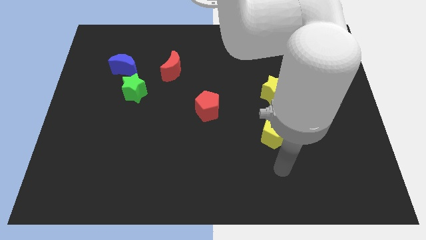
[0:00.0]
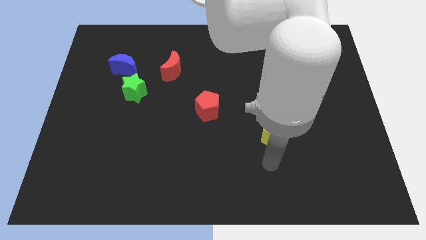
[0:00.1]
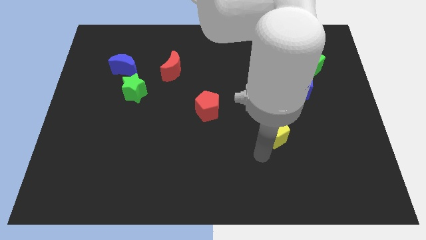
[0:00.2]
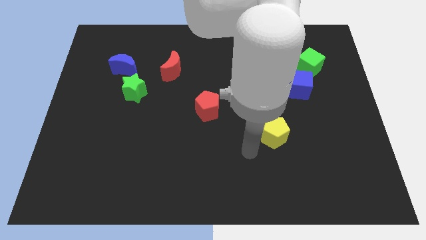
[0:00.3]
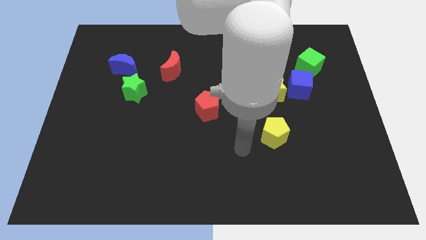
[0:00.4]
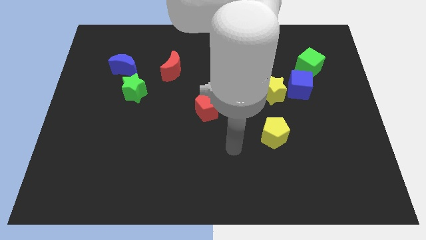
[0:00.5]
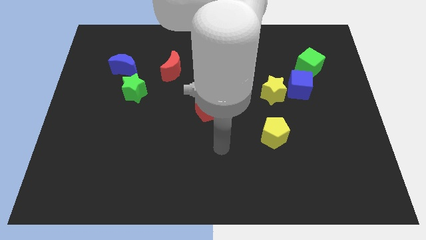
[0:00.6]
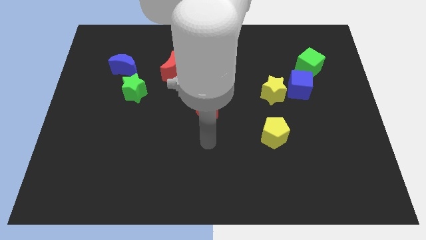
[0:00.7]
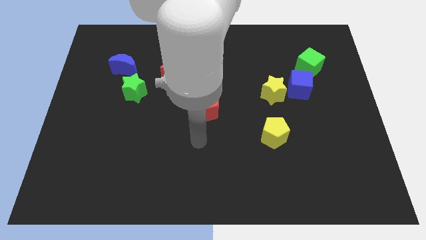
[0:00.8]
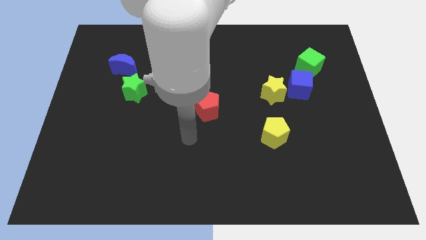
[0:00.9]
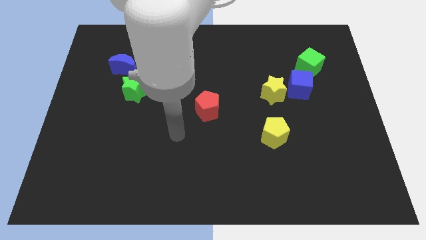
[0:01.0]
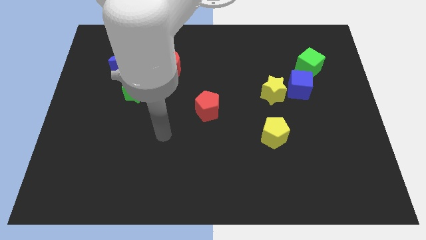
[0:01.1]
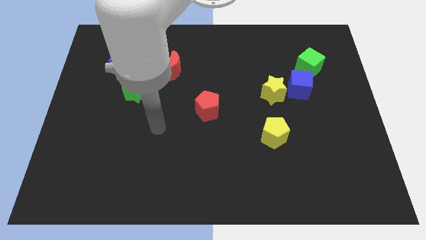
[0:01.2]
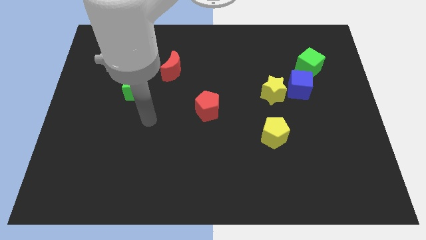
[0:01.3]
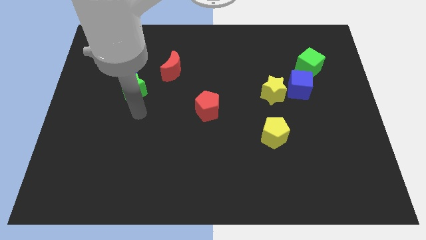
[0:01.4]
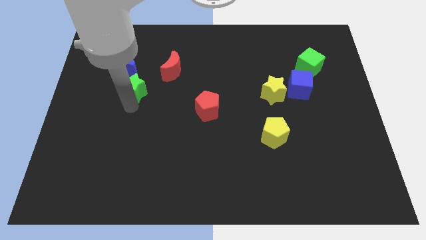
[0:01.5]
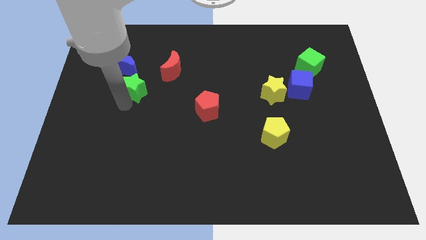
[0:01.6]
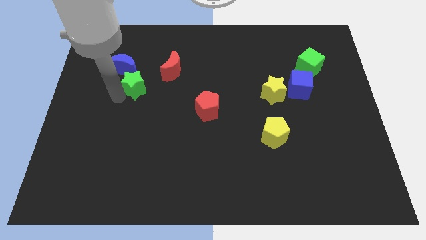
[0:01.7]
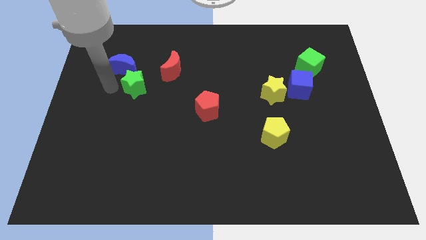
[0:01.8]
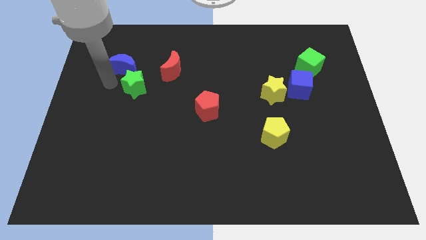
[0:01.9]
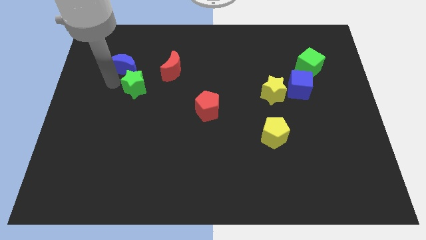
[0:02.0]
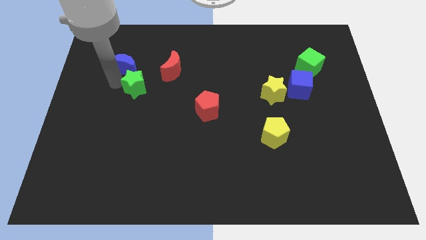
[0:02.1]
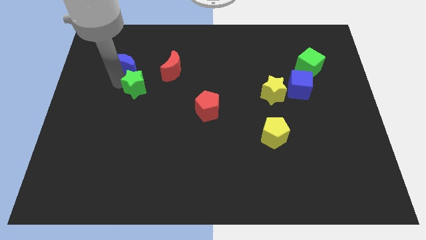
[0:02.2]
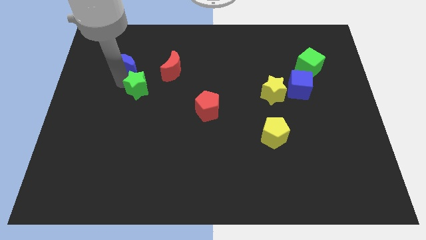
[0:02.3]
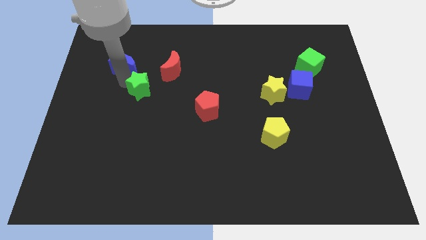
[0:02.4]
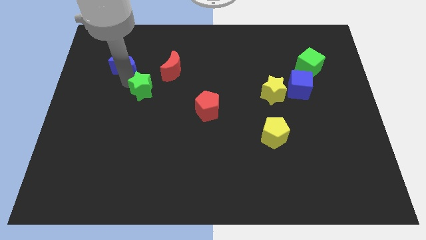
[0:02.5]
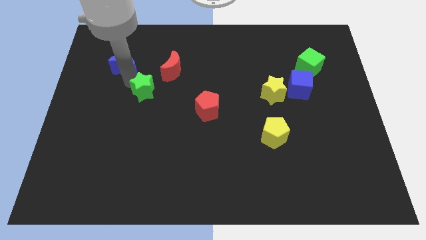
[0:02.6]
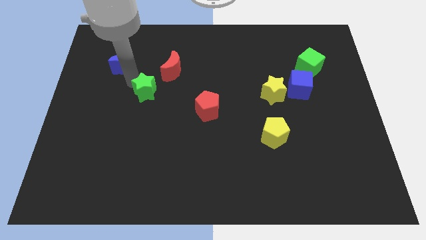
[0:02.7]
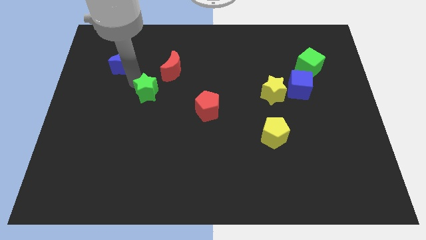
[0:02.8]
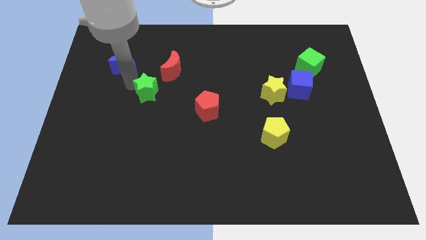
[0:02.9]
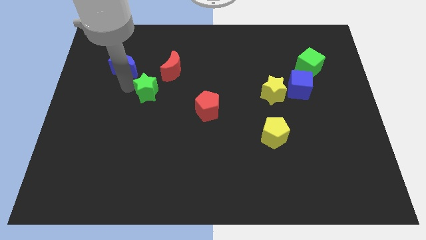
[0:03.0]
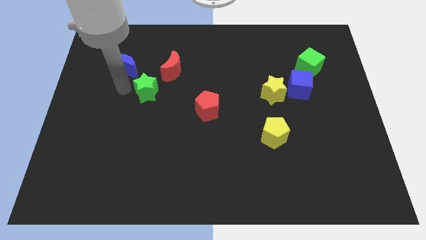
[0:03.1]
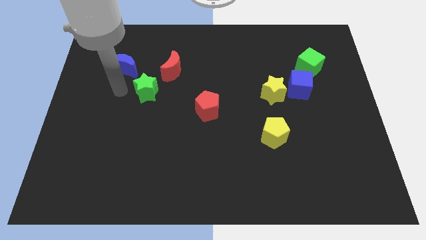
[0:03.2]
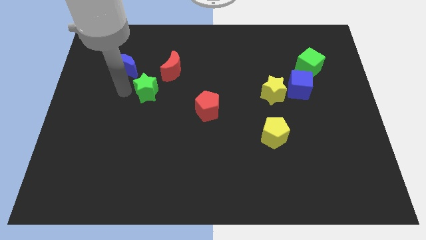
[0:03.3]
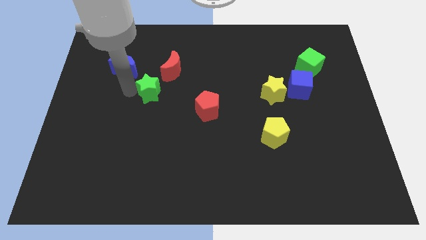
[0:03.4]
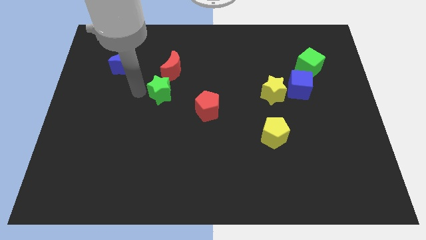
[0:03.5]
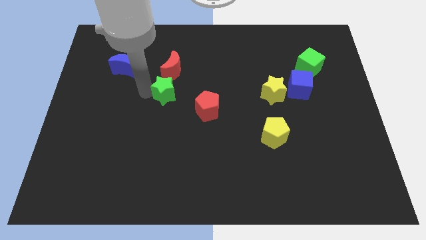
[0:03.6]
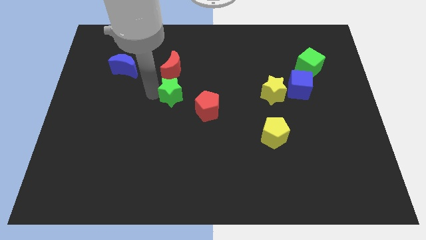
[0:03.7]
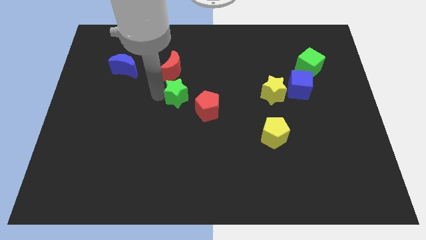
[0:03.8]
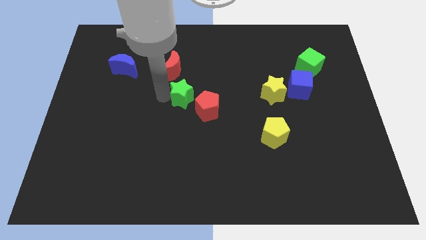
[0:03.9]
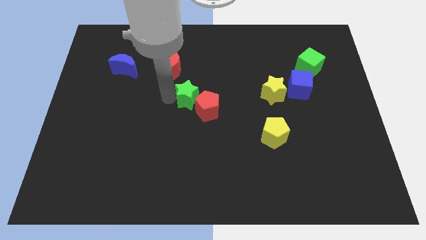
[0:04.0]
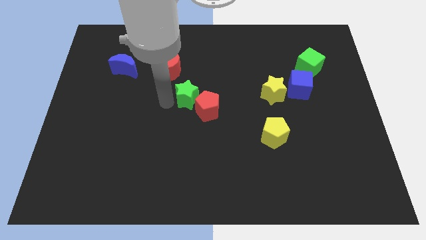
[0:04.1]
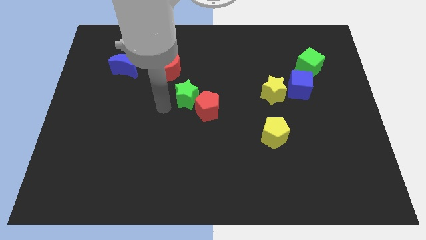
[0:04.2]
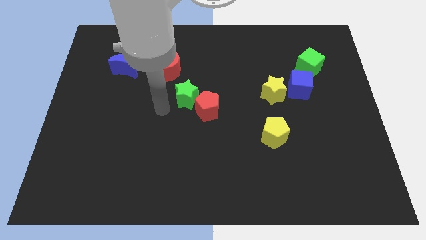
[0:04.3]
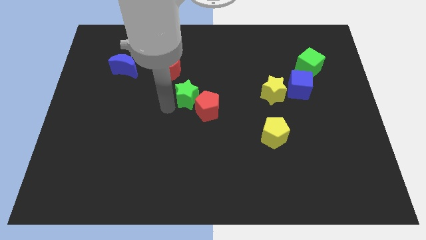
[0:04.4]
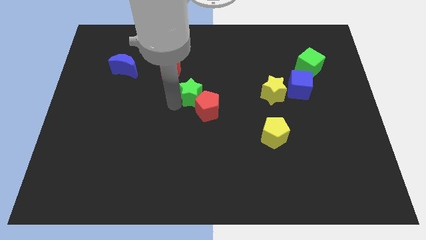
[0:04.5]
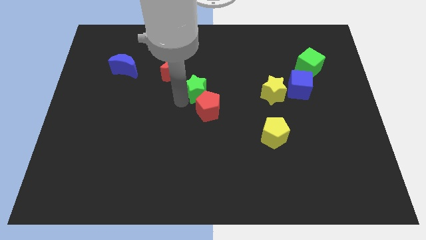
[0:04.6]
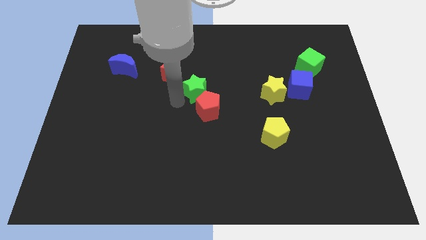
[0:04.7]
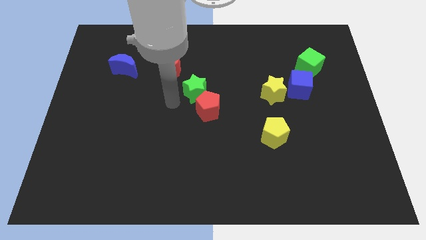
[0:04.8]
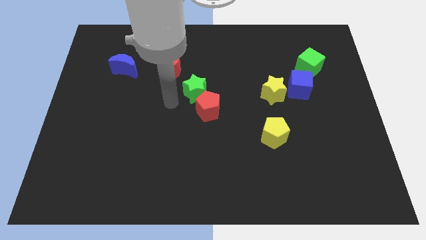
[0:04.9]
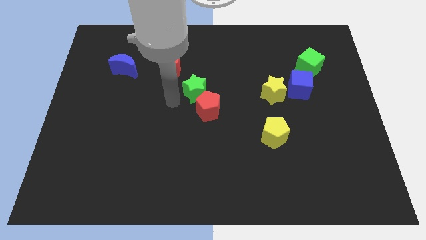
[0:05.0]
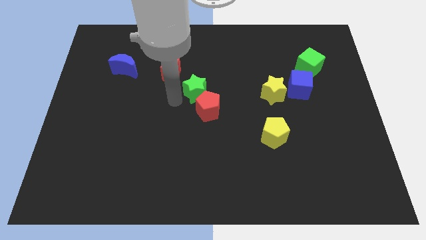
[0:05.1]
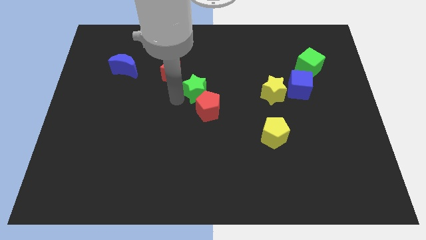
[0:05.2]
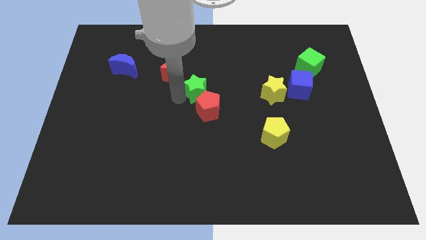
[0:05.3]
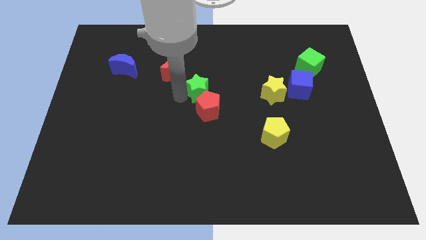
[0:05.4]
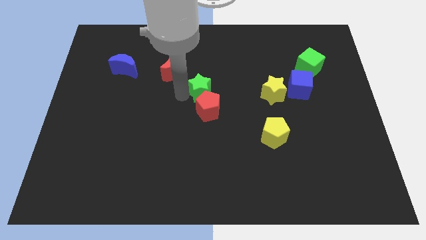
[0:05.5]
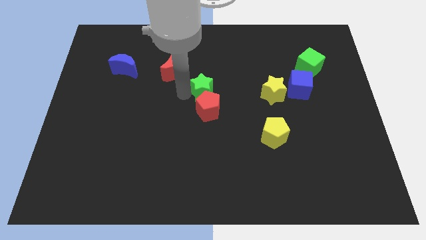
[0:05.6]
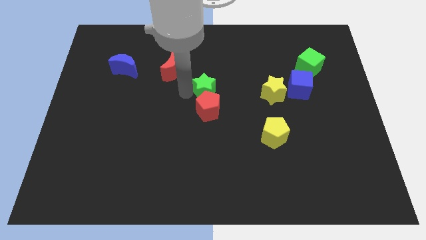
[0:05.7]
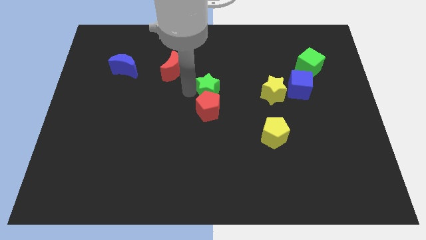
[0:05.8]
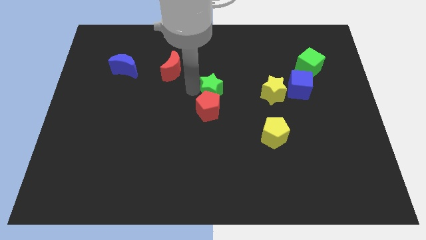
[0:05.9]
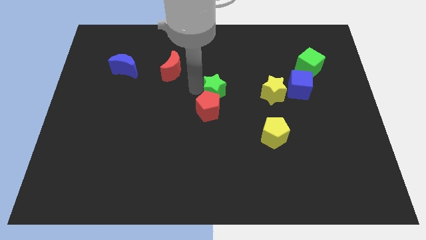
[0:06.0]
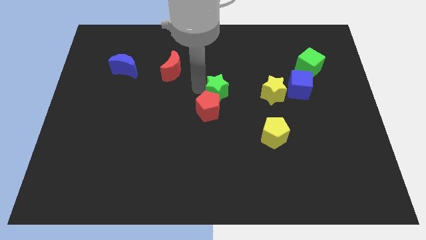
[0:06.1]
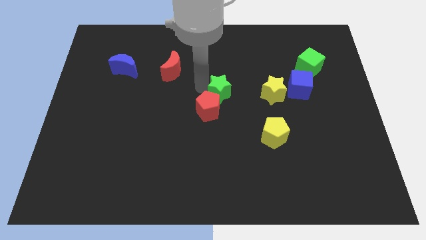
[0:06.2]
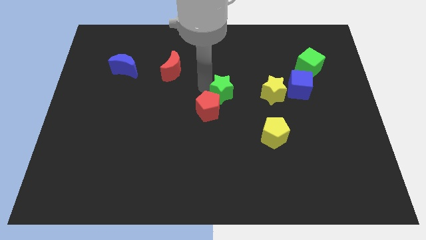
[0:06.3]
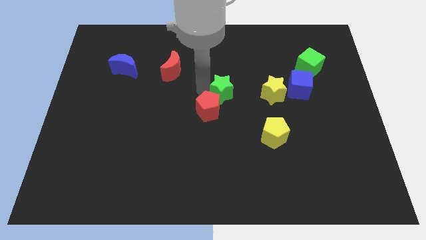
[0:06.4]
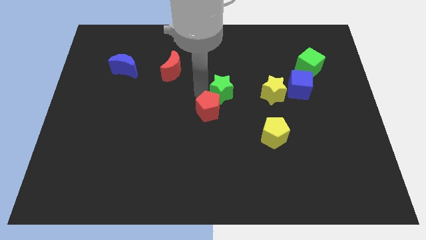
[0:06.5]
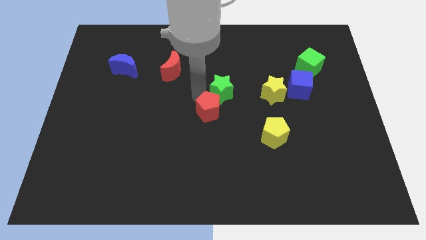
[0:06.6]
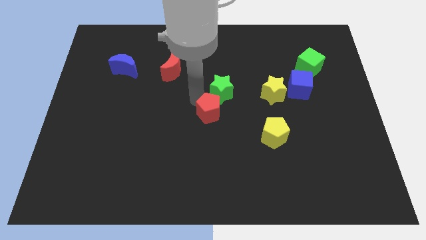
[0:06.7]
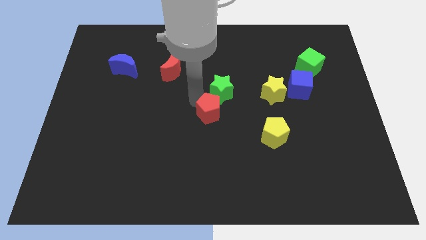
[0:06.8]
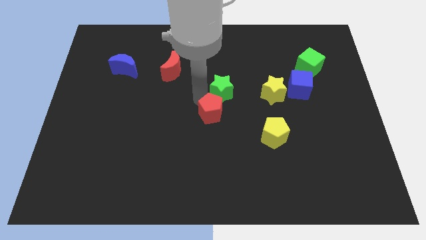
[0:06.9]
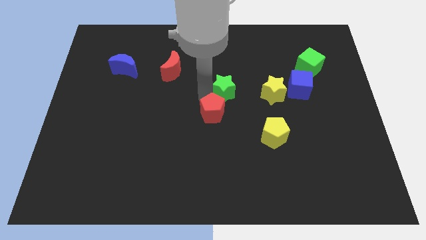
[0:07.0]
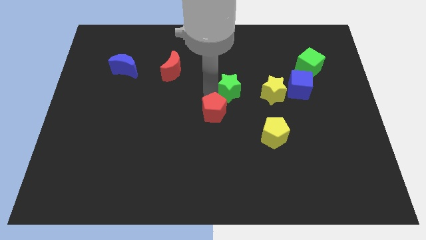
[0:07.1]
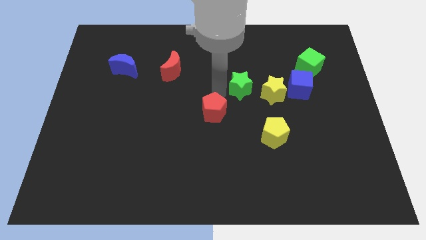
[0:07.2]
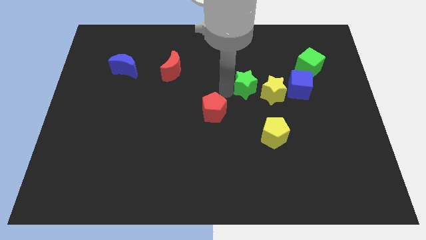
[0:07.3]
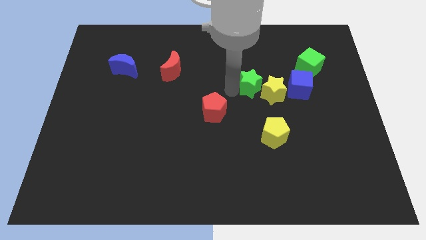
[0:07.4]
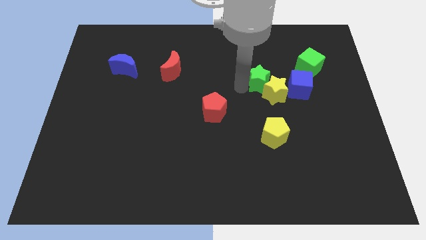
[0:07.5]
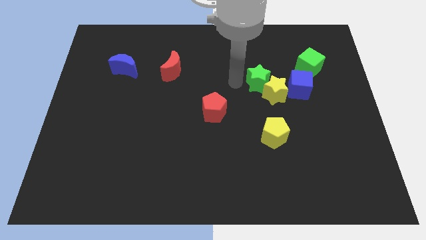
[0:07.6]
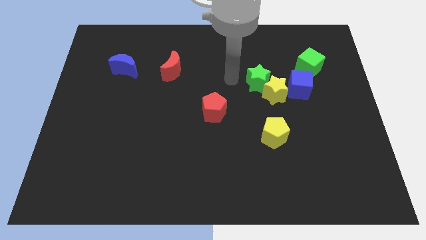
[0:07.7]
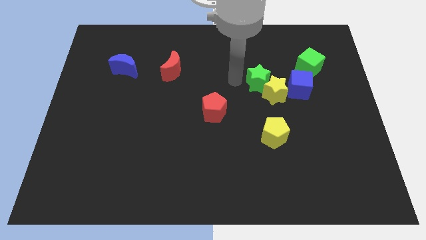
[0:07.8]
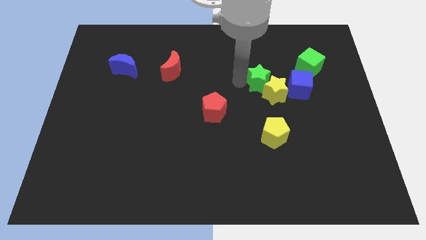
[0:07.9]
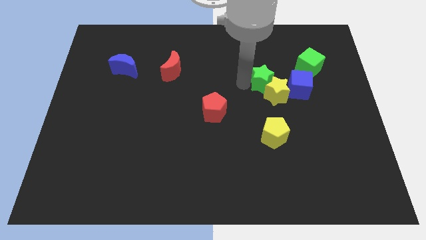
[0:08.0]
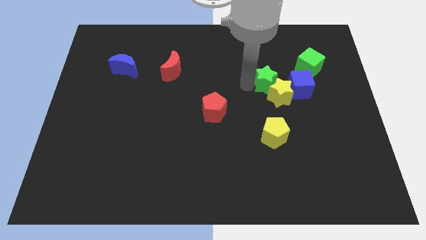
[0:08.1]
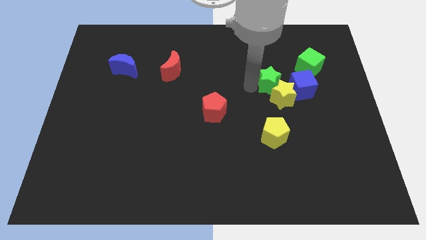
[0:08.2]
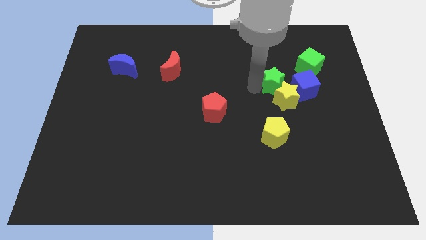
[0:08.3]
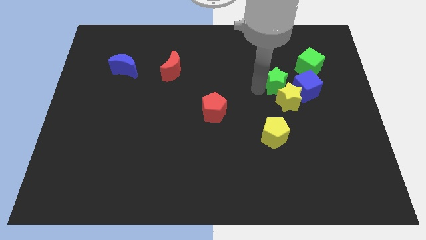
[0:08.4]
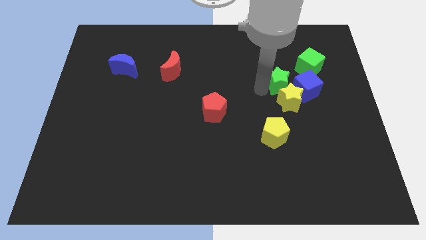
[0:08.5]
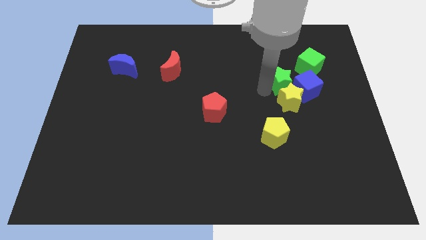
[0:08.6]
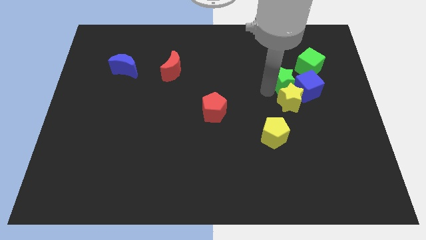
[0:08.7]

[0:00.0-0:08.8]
move the green star next to the blue cube
